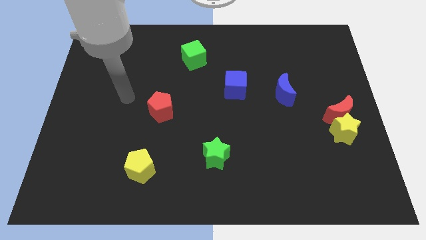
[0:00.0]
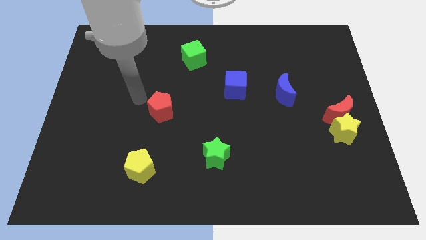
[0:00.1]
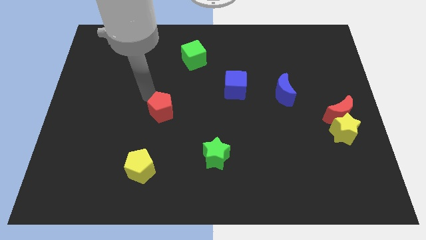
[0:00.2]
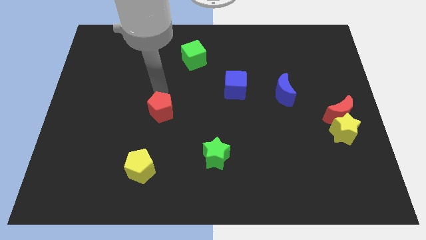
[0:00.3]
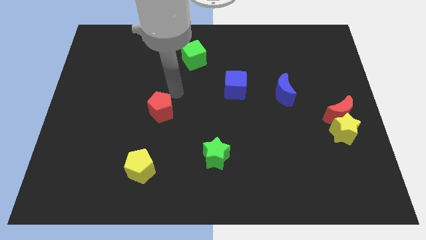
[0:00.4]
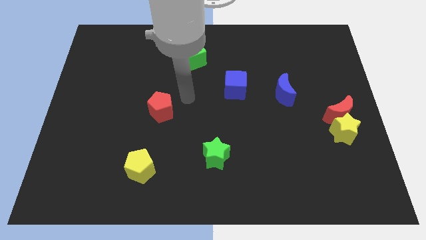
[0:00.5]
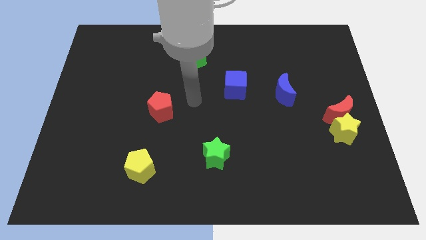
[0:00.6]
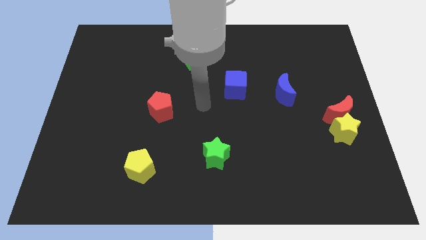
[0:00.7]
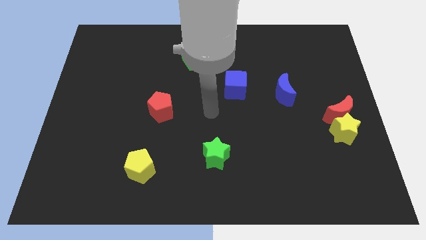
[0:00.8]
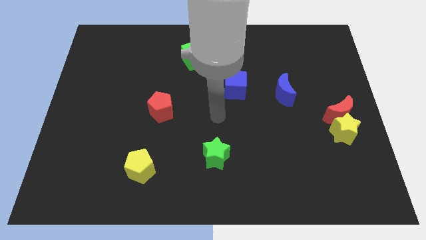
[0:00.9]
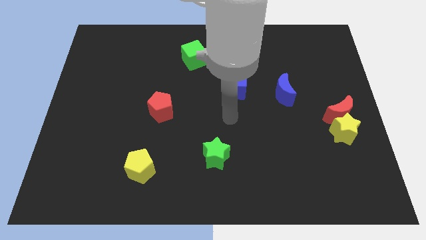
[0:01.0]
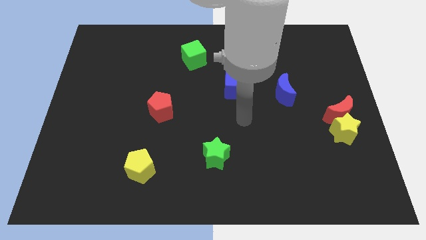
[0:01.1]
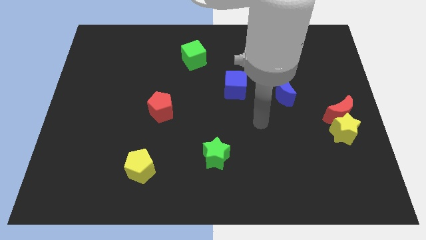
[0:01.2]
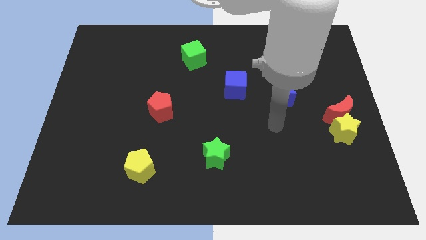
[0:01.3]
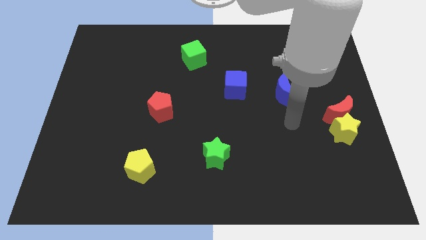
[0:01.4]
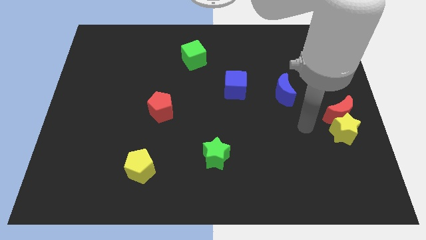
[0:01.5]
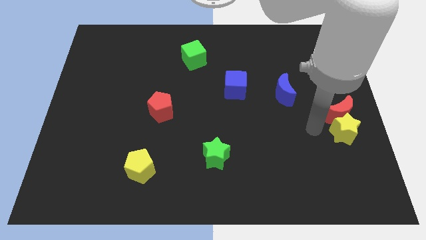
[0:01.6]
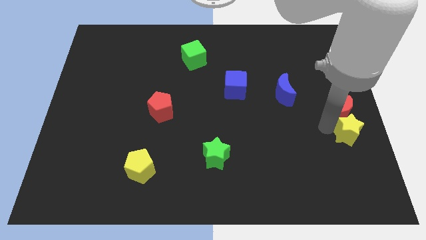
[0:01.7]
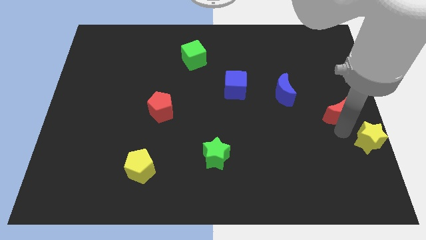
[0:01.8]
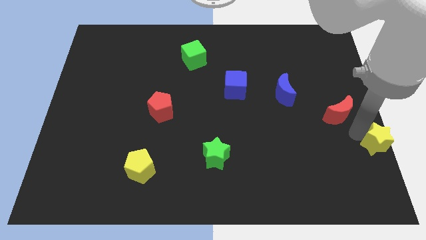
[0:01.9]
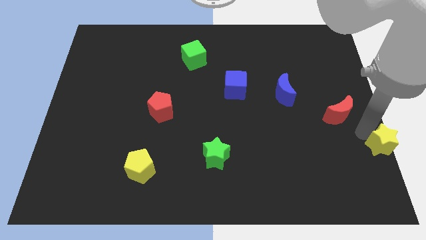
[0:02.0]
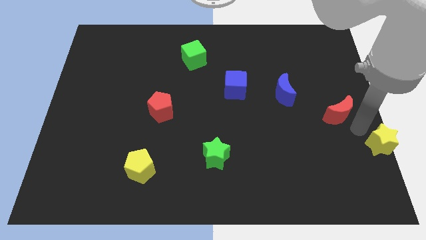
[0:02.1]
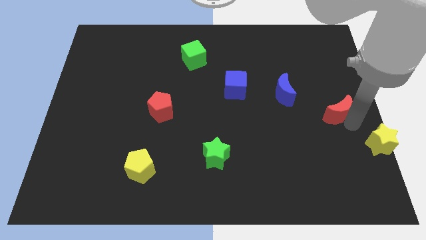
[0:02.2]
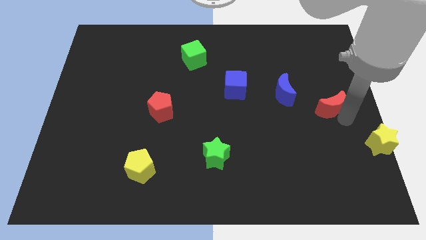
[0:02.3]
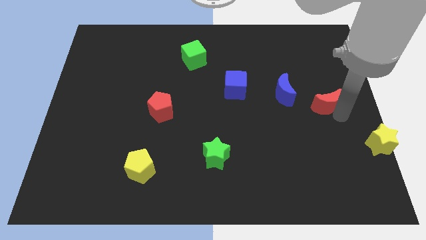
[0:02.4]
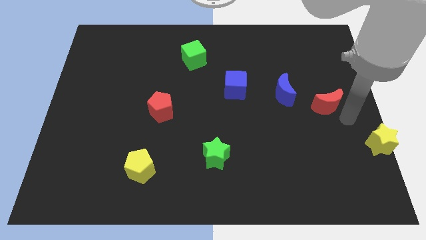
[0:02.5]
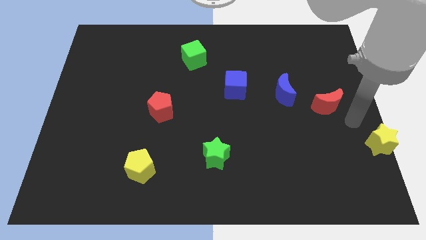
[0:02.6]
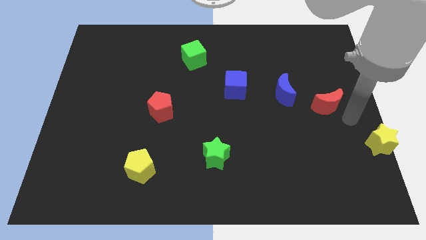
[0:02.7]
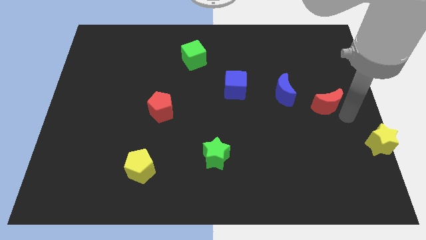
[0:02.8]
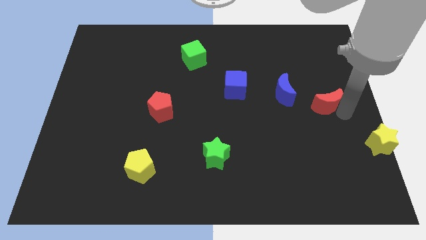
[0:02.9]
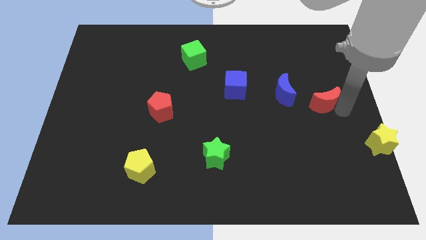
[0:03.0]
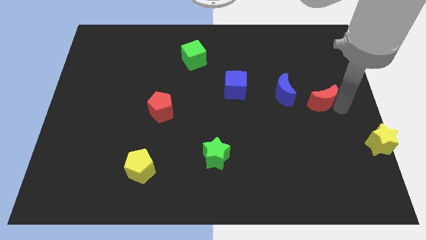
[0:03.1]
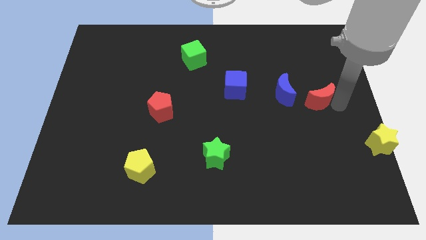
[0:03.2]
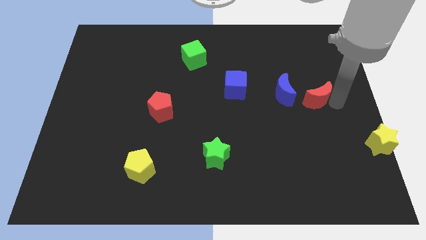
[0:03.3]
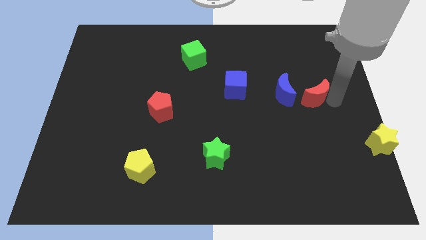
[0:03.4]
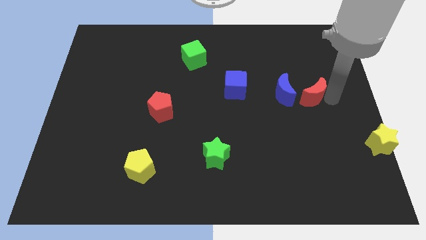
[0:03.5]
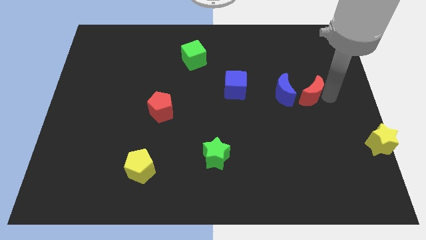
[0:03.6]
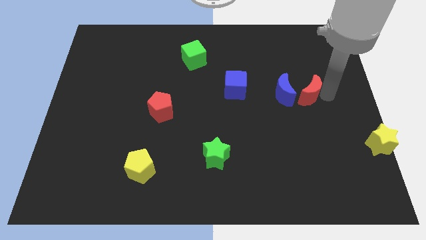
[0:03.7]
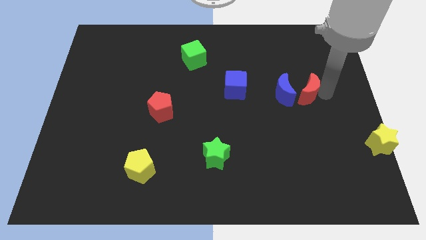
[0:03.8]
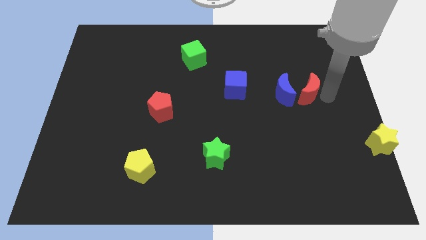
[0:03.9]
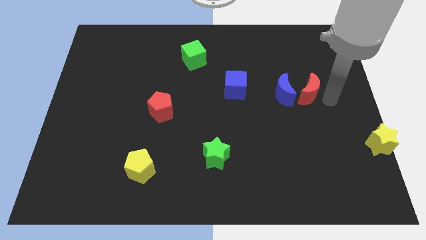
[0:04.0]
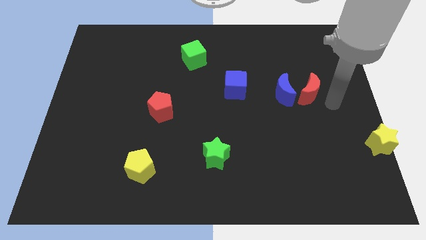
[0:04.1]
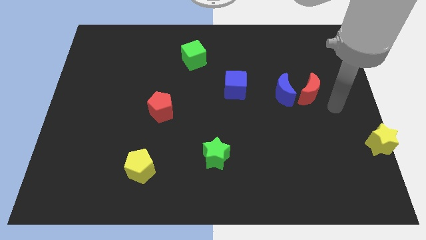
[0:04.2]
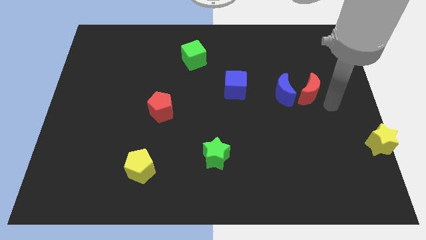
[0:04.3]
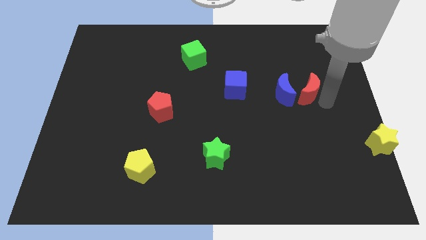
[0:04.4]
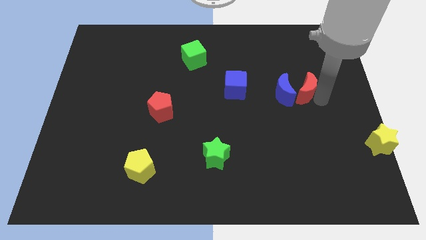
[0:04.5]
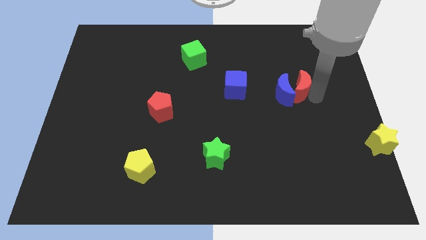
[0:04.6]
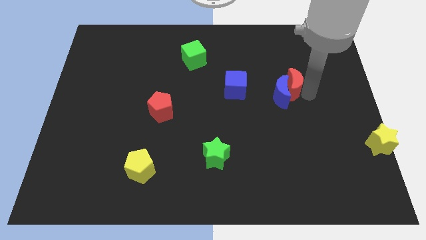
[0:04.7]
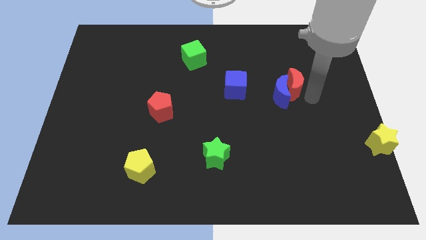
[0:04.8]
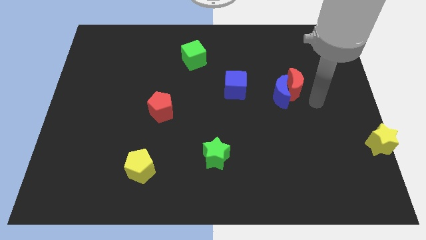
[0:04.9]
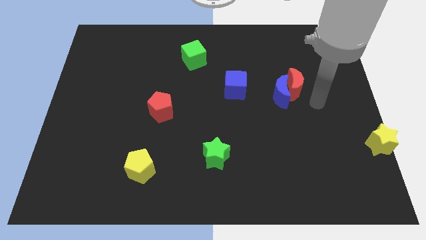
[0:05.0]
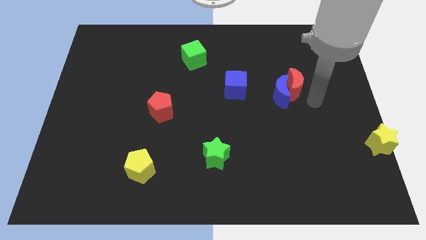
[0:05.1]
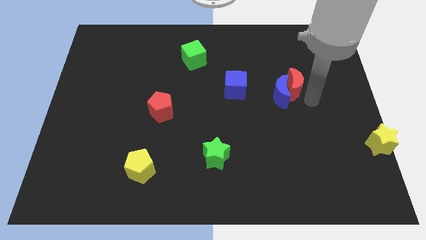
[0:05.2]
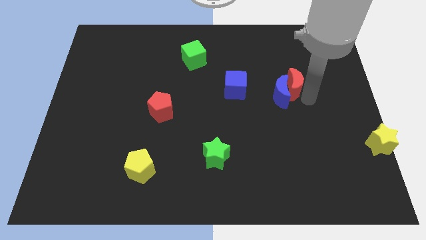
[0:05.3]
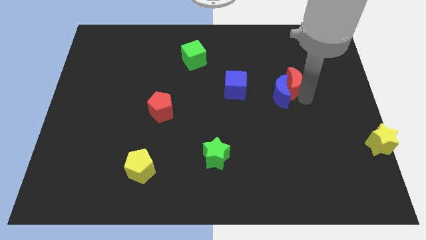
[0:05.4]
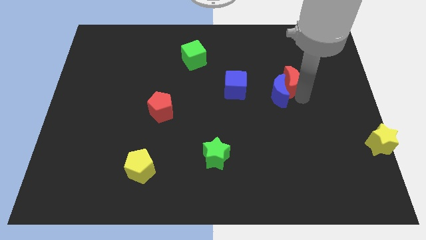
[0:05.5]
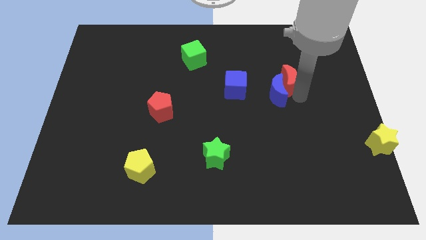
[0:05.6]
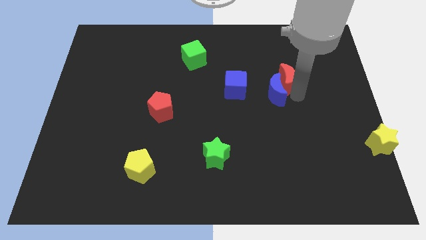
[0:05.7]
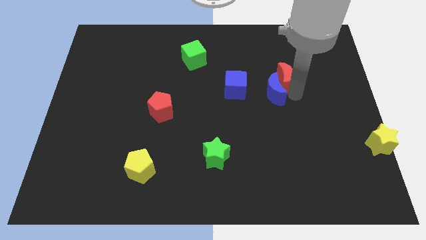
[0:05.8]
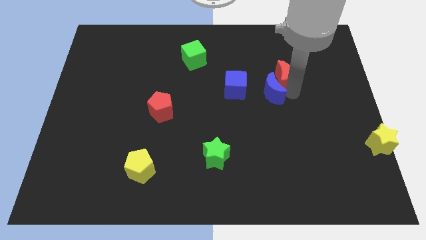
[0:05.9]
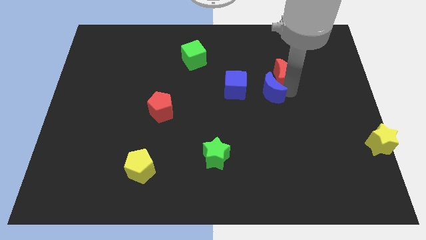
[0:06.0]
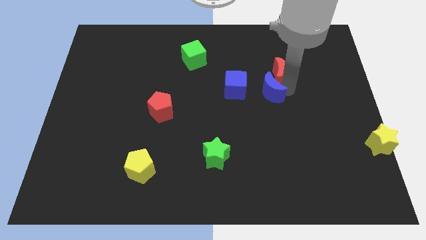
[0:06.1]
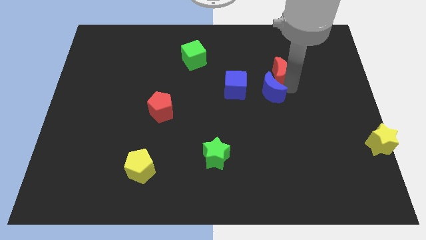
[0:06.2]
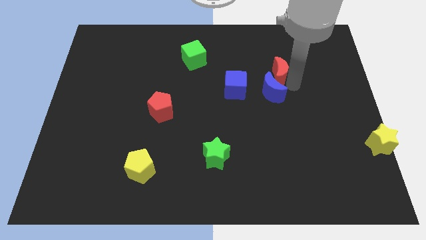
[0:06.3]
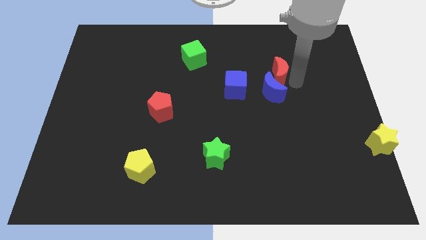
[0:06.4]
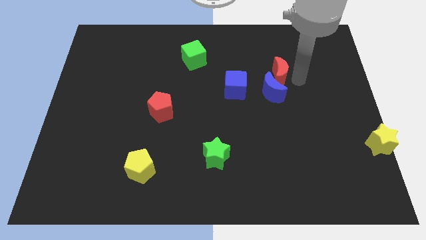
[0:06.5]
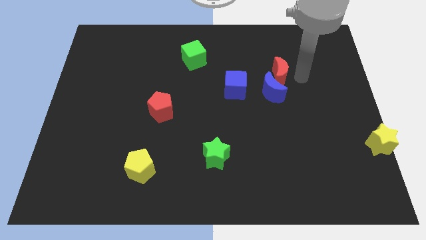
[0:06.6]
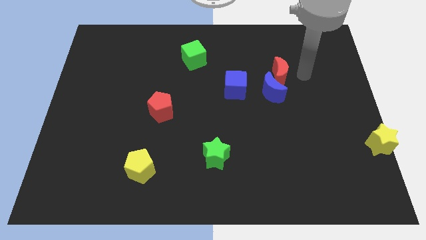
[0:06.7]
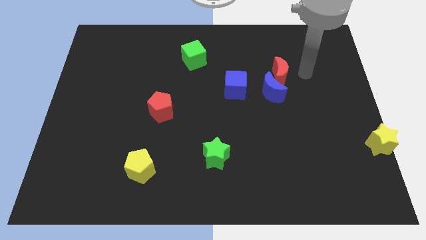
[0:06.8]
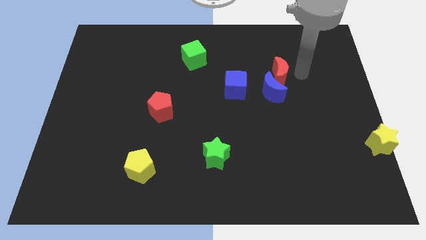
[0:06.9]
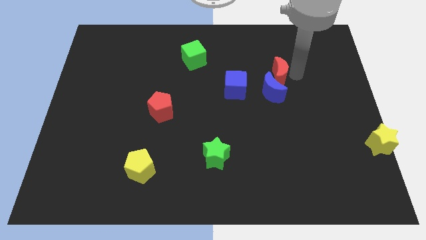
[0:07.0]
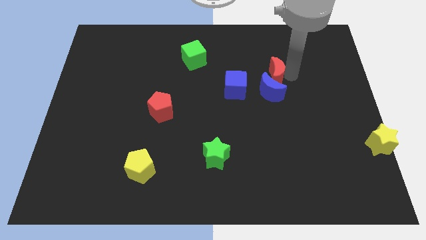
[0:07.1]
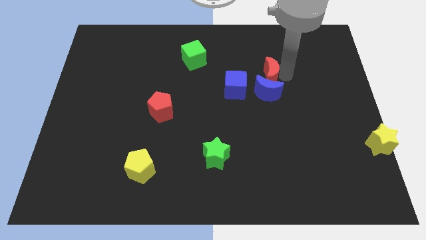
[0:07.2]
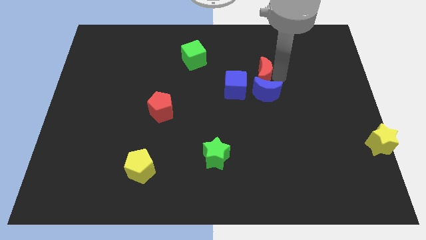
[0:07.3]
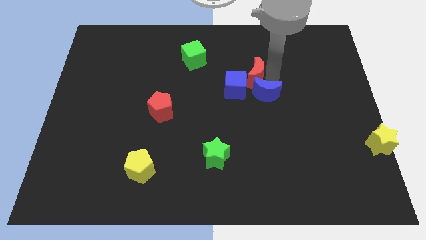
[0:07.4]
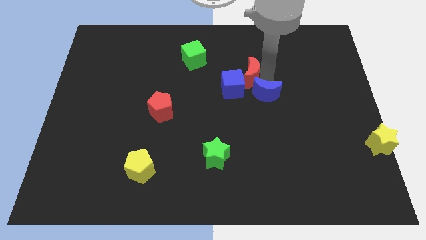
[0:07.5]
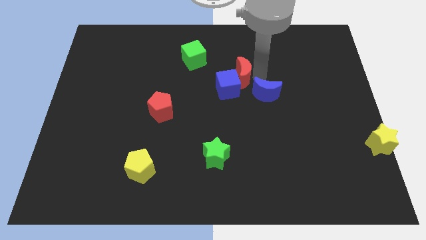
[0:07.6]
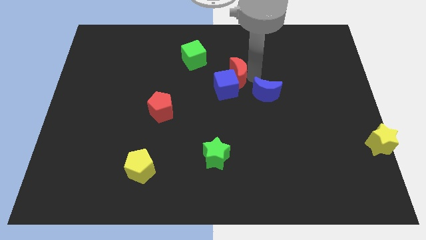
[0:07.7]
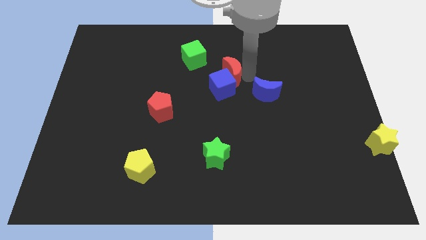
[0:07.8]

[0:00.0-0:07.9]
move the red moon to the bottom right of the green cube
